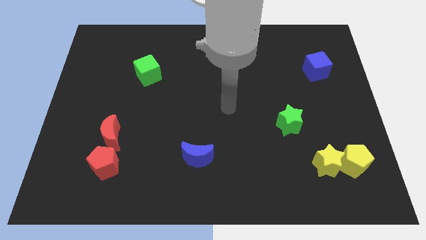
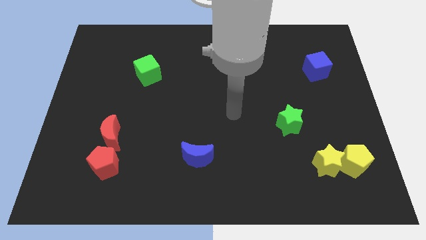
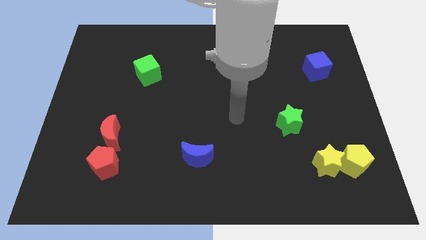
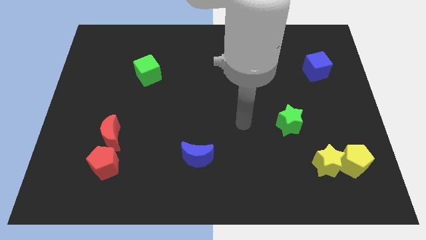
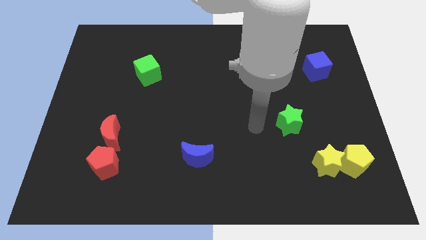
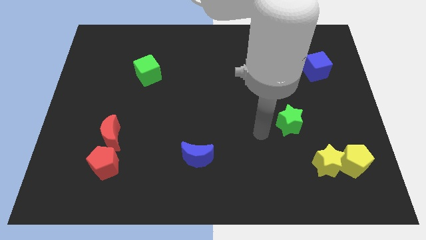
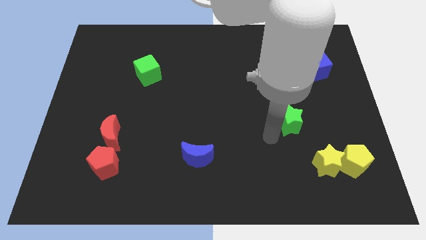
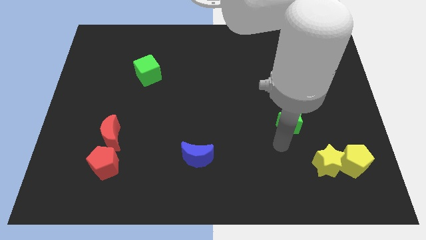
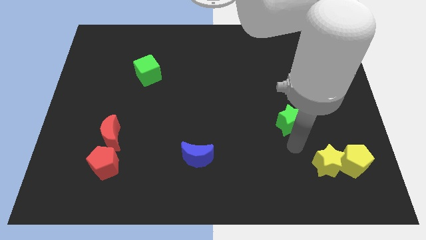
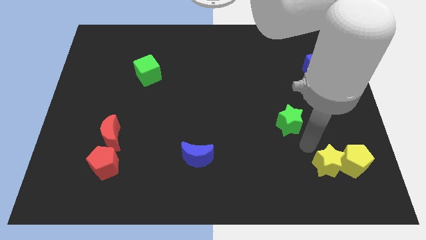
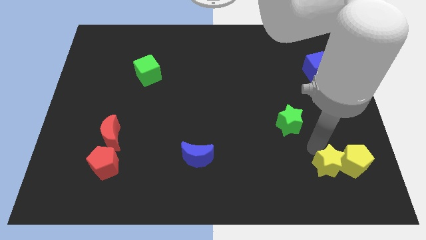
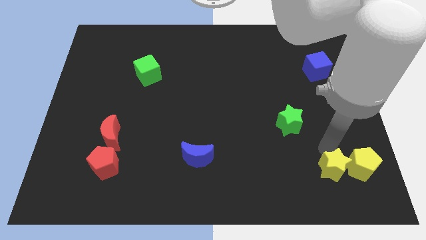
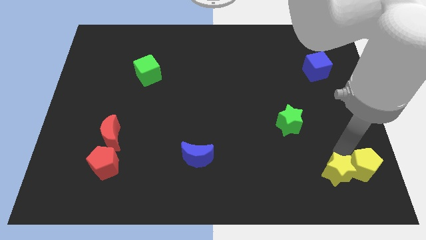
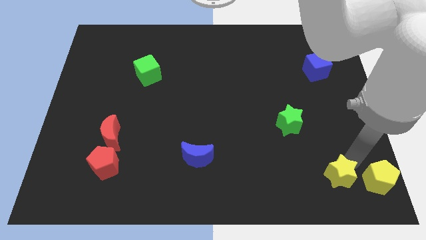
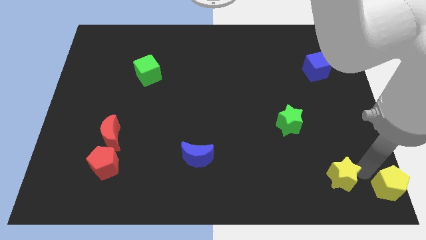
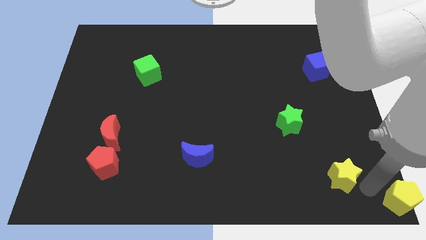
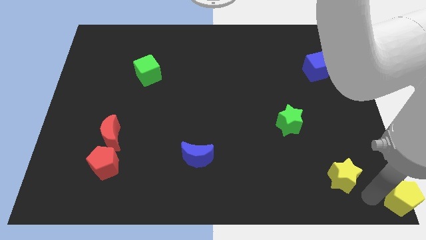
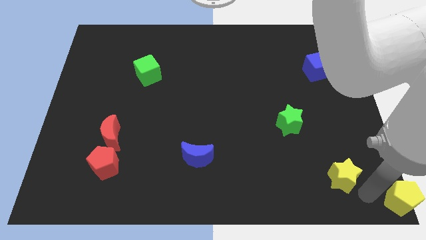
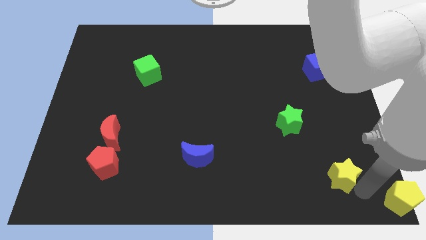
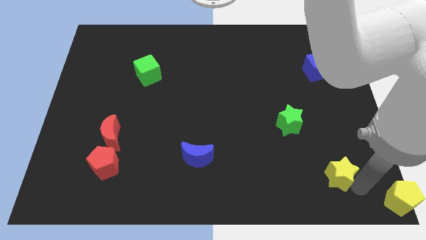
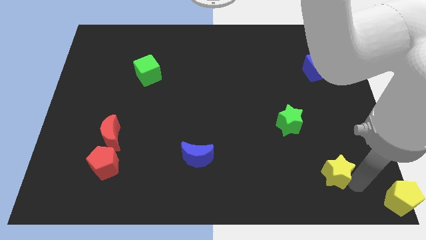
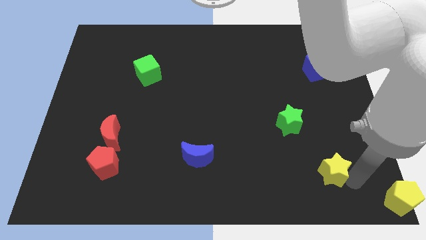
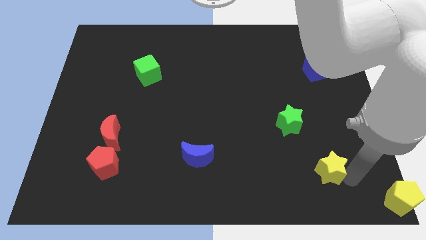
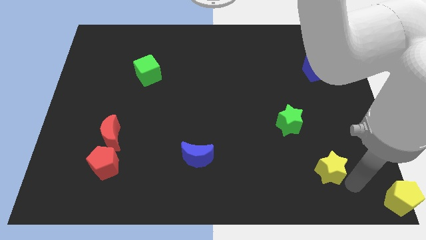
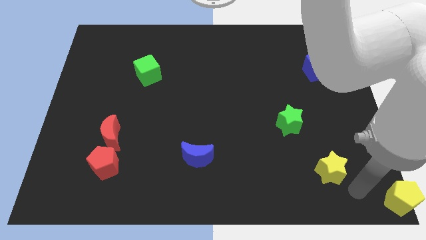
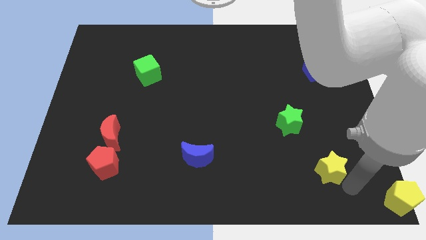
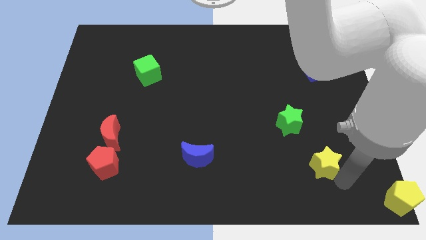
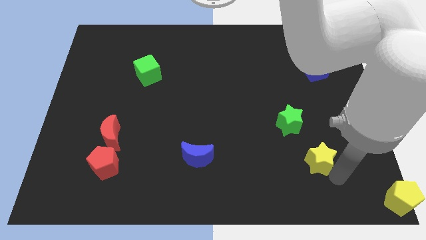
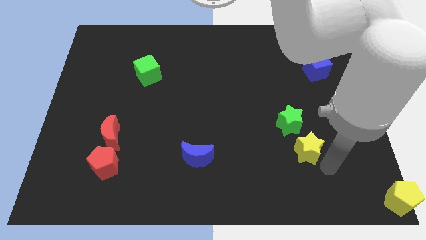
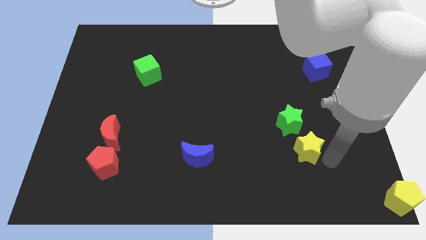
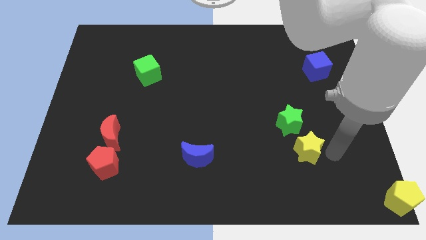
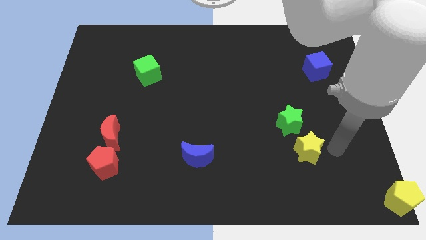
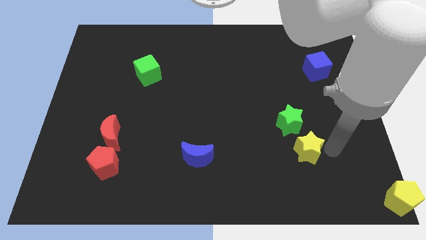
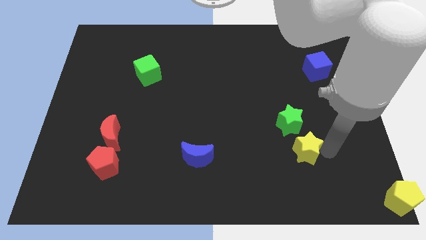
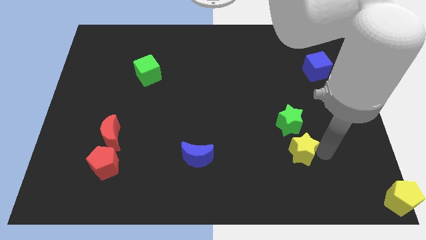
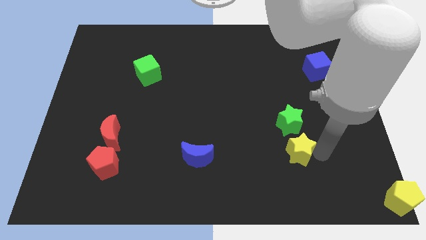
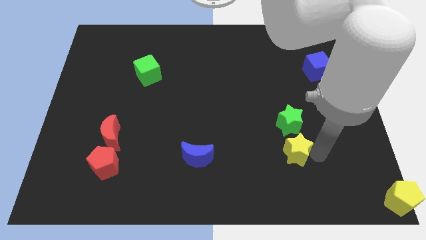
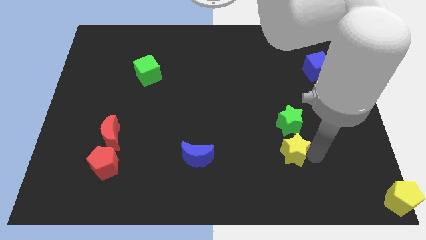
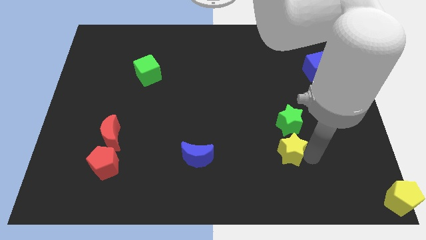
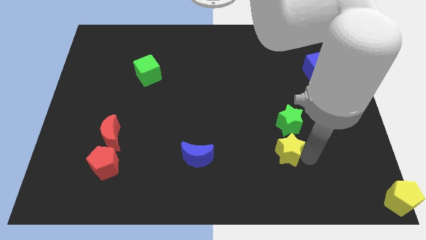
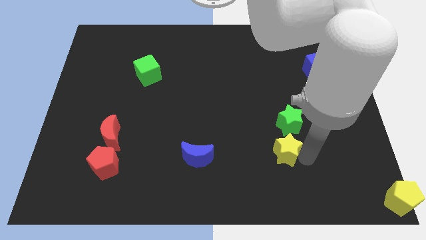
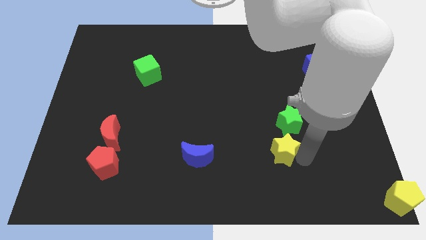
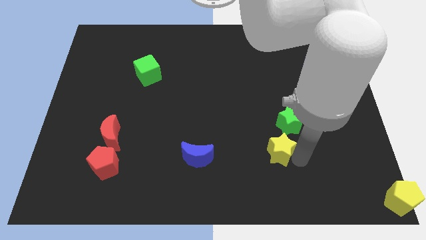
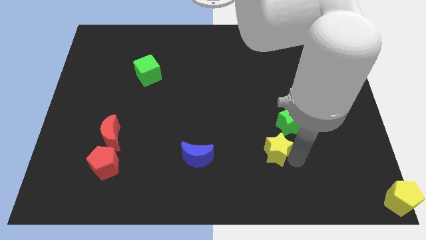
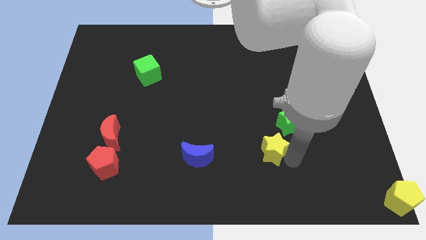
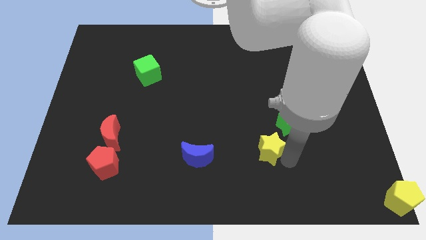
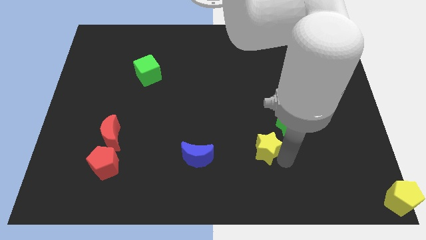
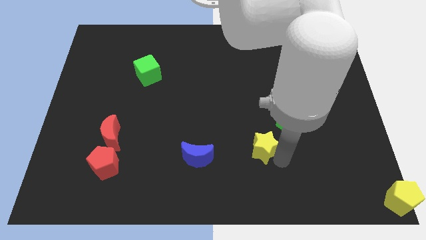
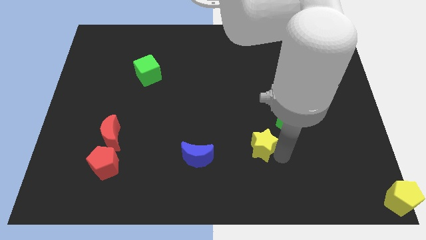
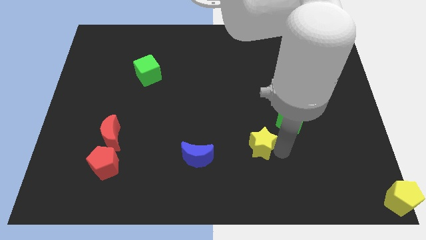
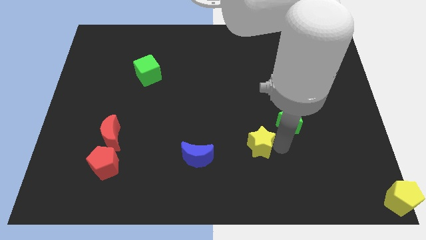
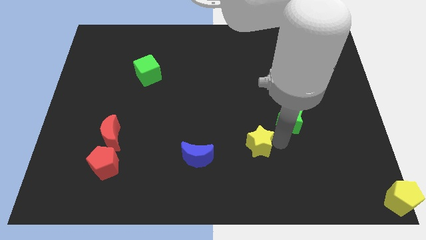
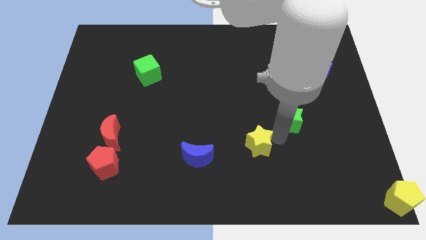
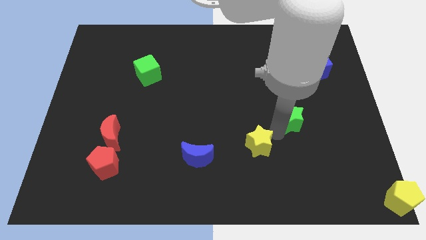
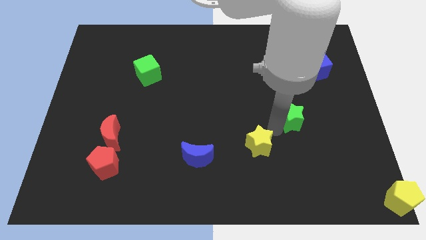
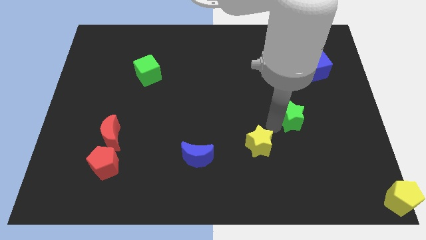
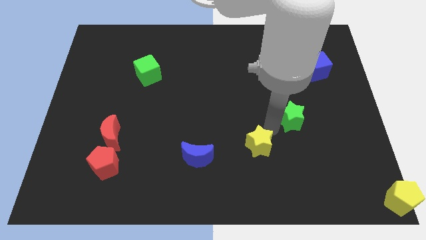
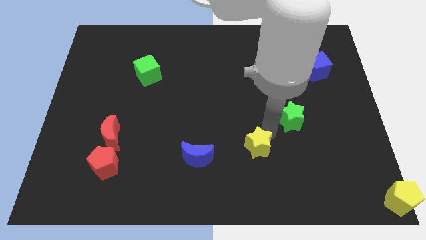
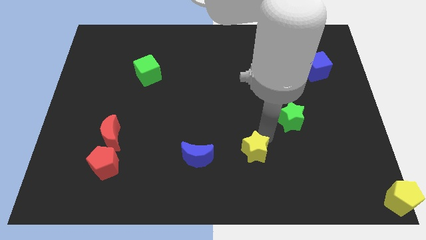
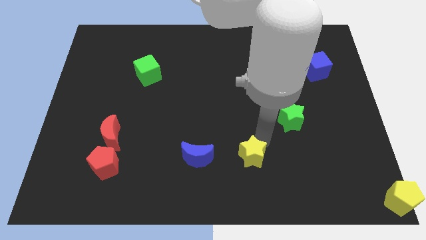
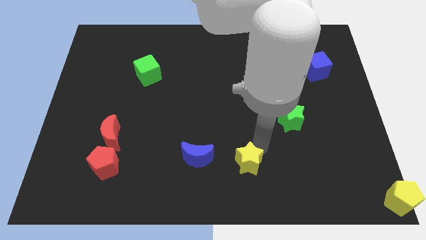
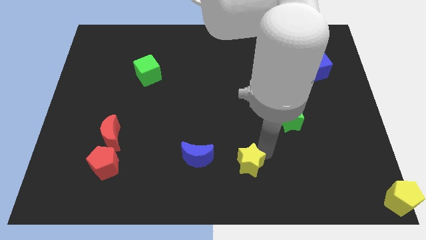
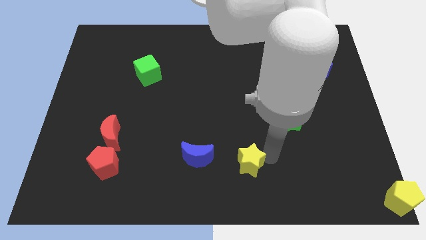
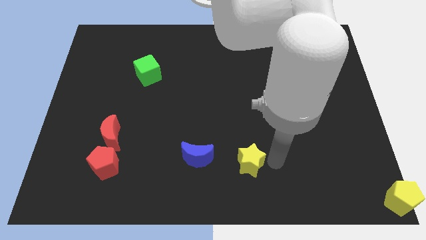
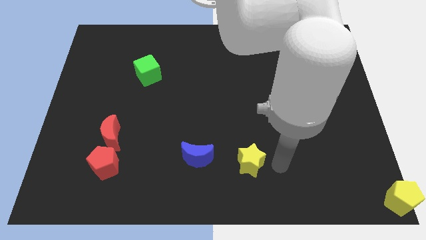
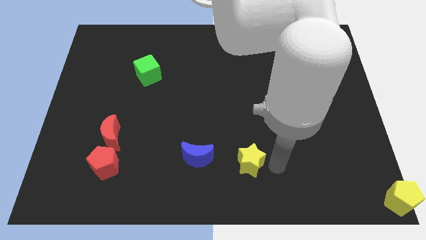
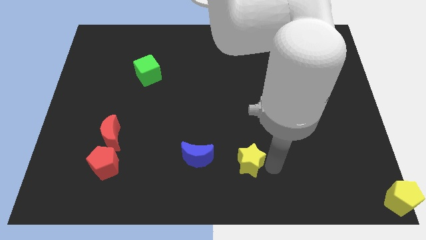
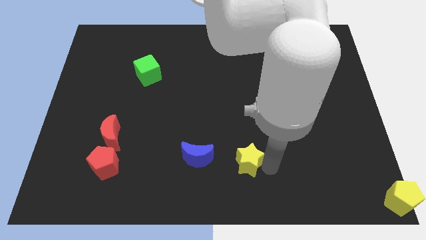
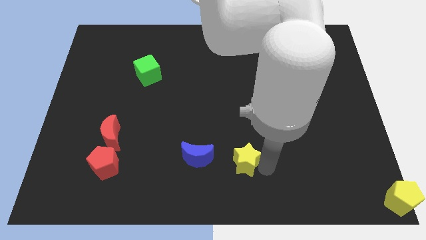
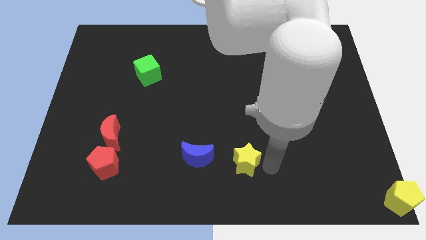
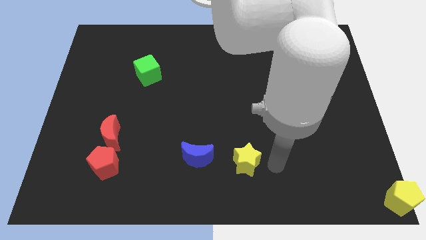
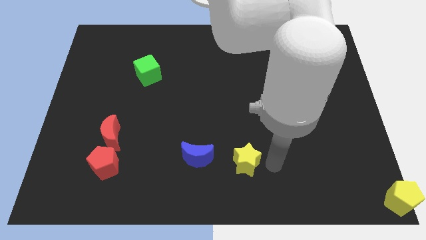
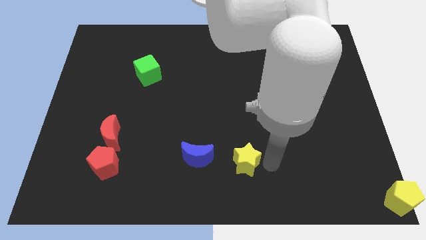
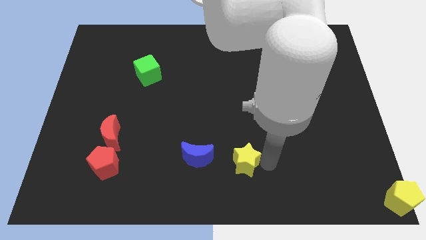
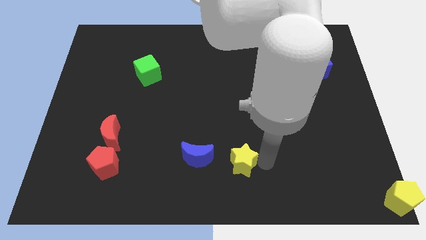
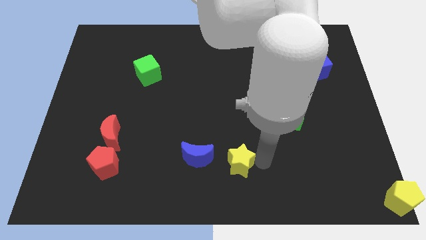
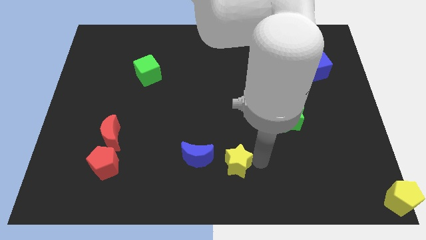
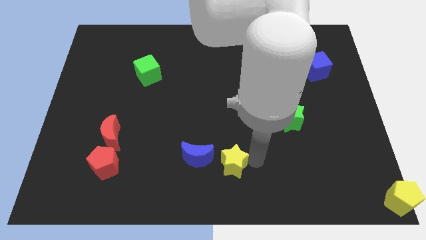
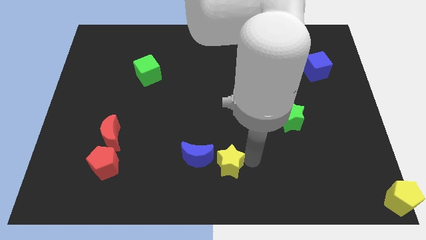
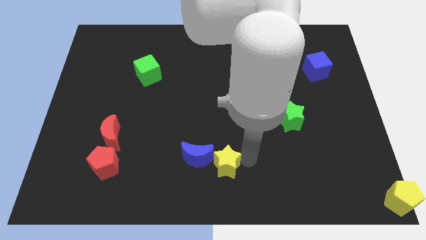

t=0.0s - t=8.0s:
put the yellow star to the blue moon
